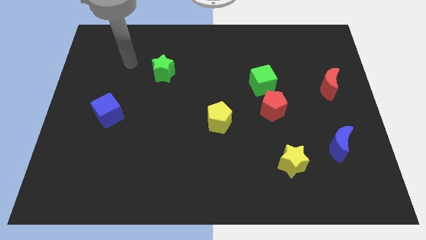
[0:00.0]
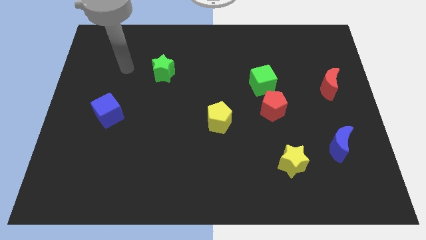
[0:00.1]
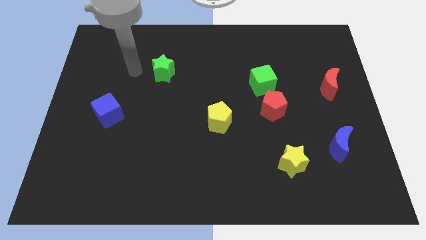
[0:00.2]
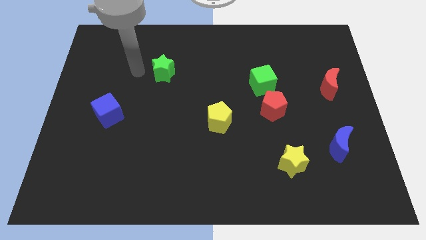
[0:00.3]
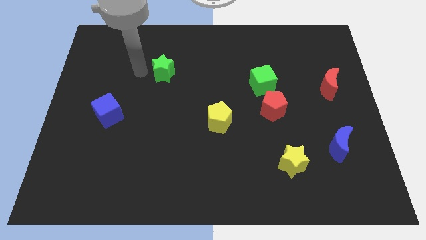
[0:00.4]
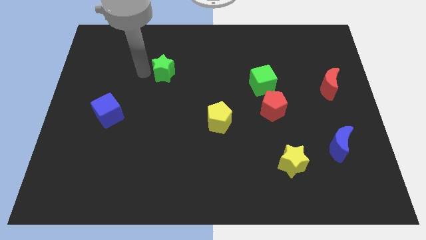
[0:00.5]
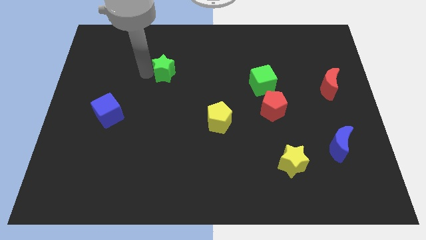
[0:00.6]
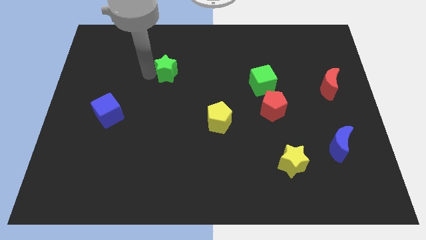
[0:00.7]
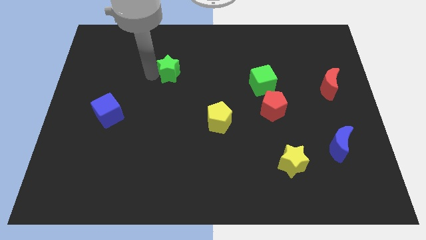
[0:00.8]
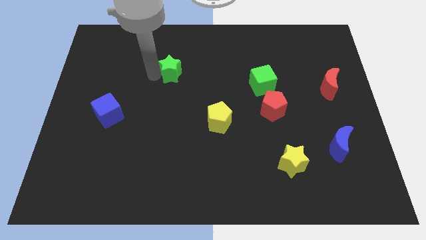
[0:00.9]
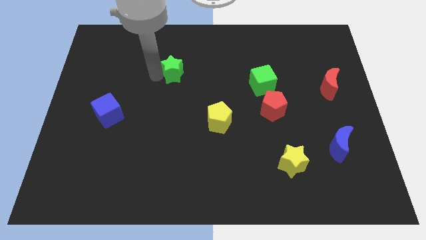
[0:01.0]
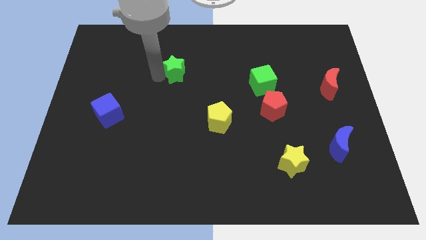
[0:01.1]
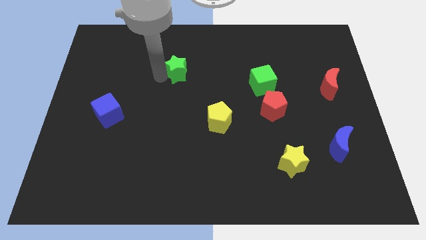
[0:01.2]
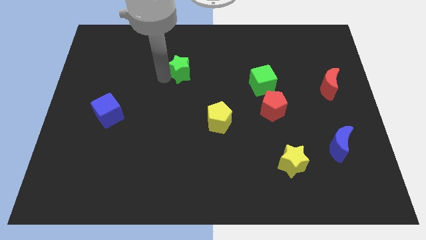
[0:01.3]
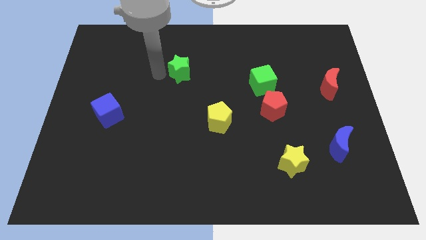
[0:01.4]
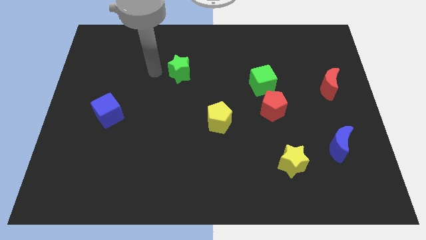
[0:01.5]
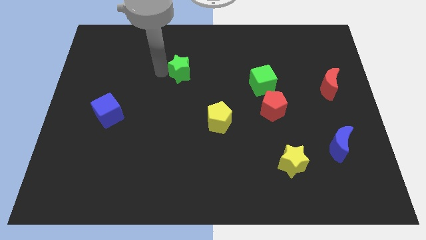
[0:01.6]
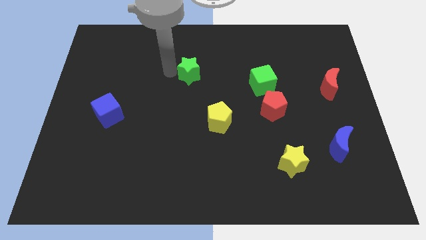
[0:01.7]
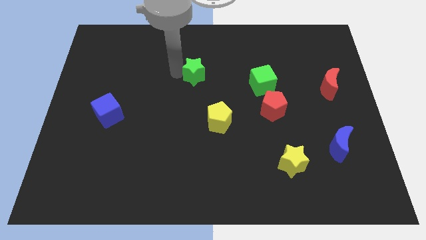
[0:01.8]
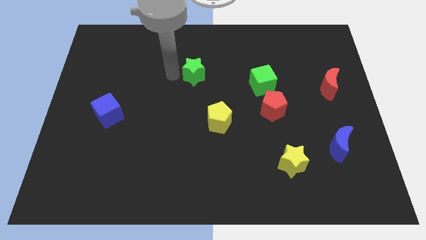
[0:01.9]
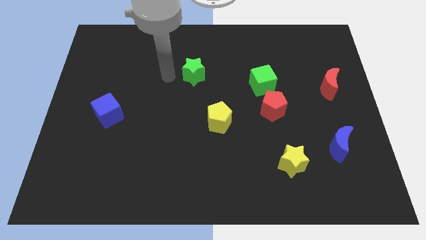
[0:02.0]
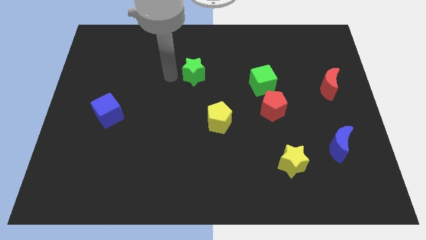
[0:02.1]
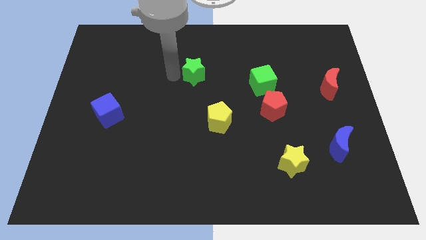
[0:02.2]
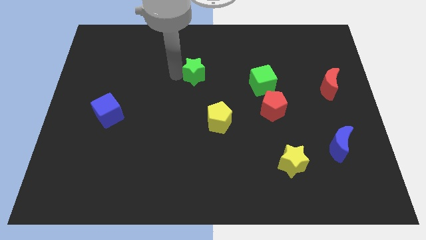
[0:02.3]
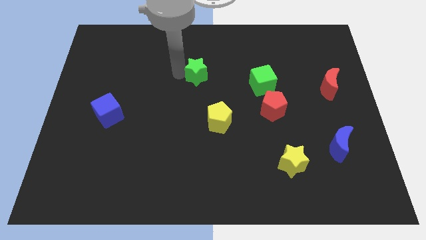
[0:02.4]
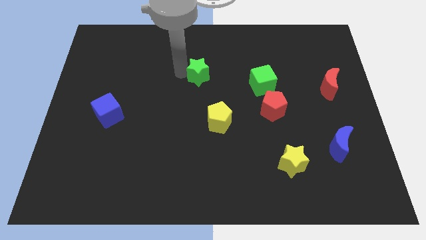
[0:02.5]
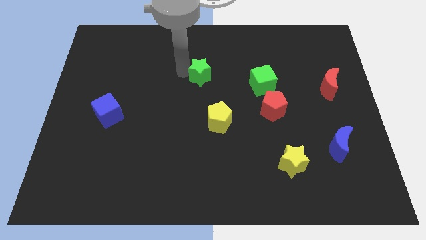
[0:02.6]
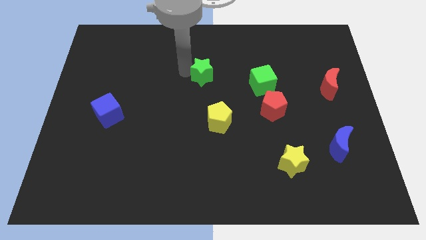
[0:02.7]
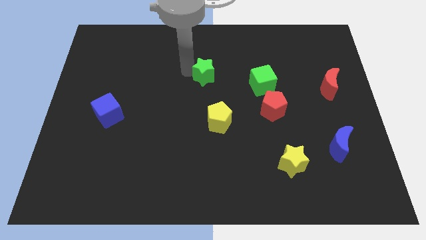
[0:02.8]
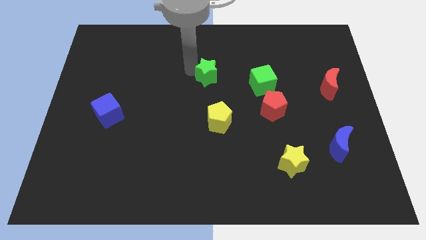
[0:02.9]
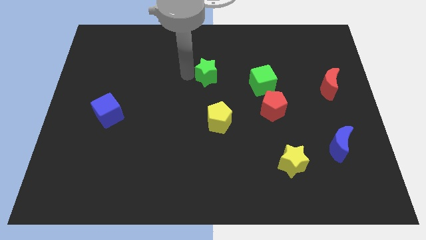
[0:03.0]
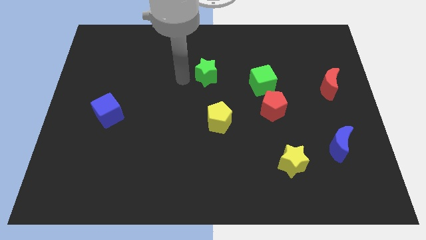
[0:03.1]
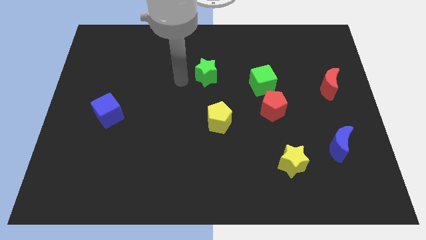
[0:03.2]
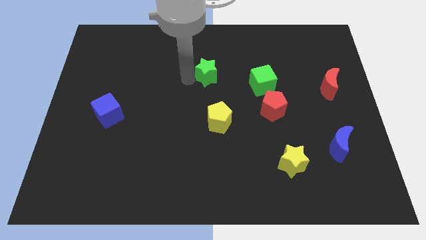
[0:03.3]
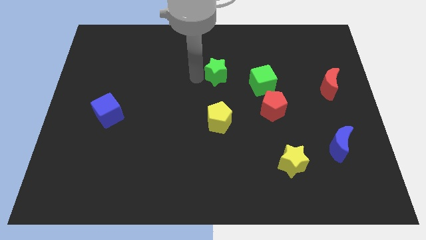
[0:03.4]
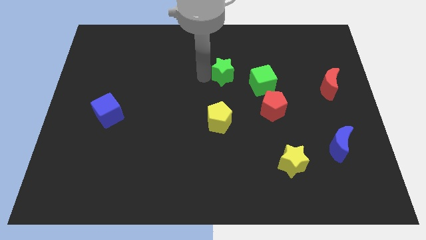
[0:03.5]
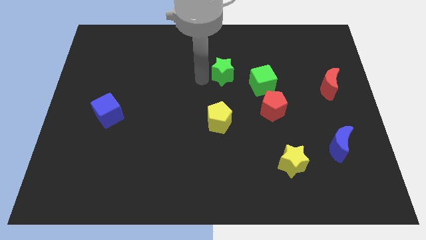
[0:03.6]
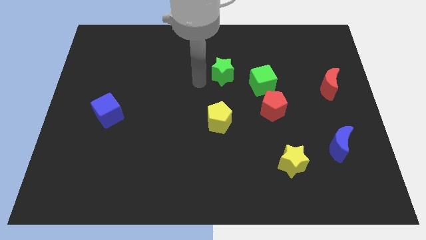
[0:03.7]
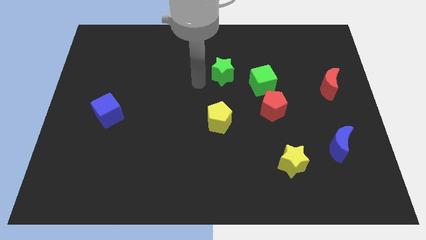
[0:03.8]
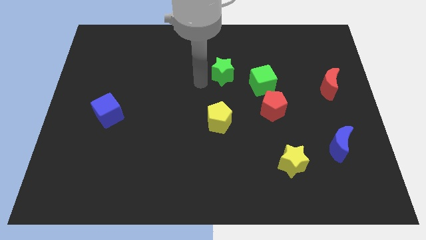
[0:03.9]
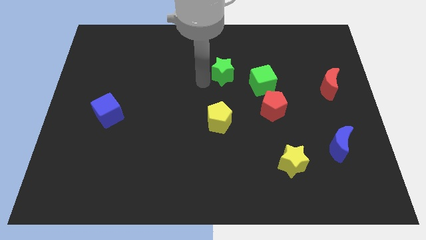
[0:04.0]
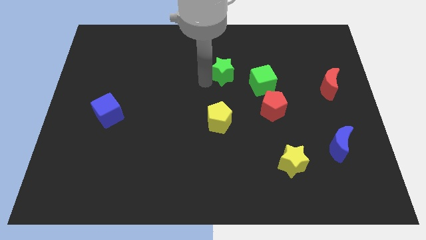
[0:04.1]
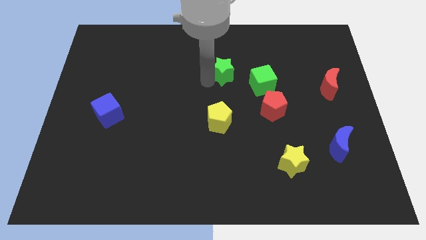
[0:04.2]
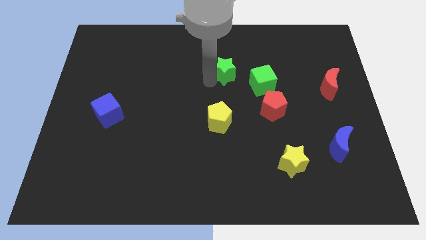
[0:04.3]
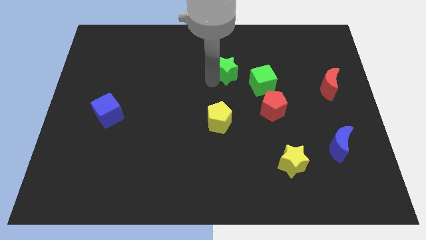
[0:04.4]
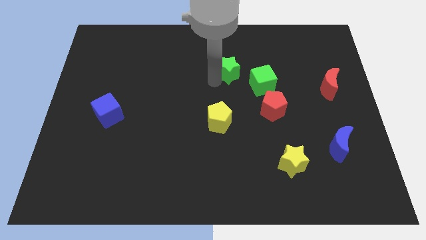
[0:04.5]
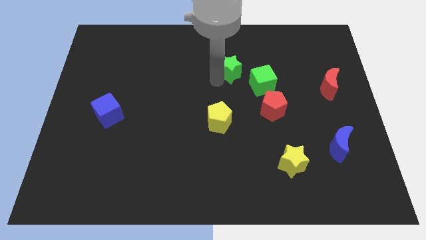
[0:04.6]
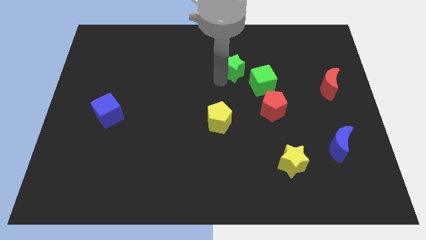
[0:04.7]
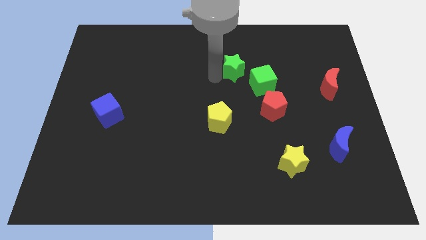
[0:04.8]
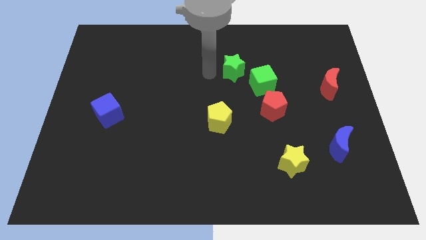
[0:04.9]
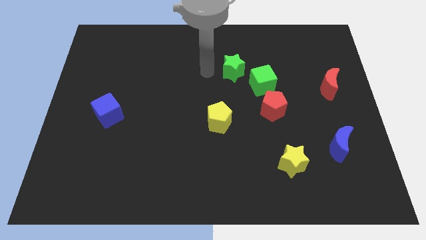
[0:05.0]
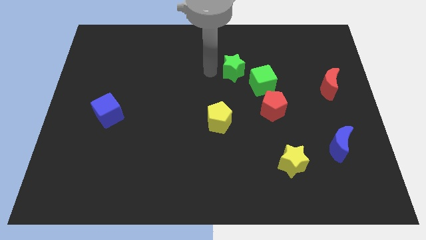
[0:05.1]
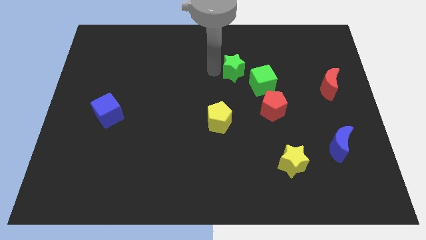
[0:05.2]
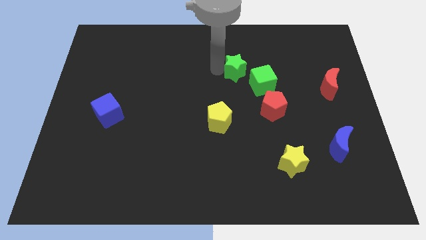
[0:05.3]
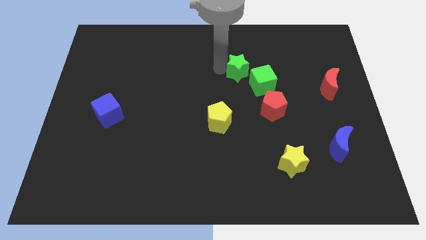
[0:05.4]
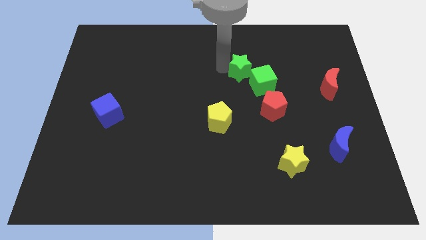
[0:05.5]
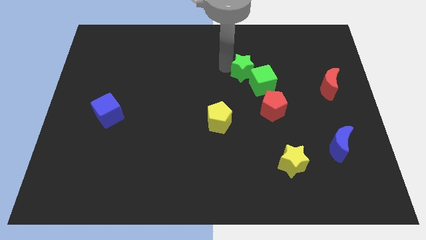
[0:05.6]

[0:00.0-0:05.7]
move the green star right

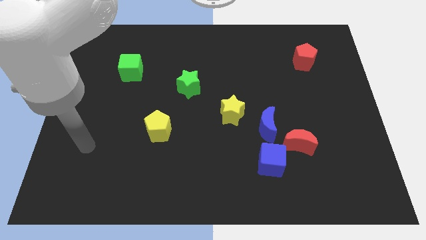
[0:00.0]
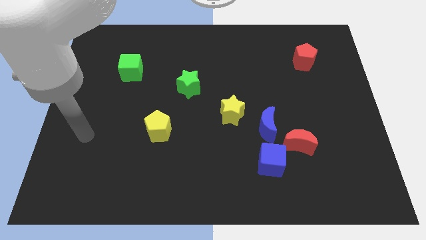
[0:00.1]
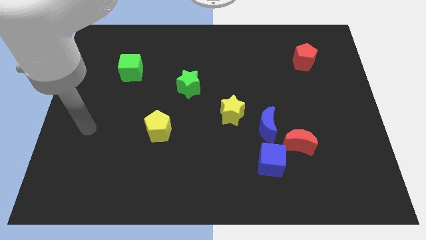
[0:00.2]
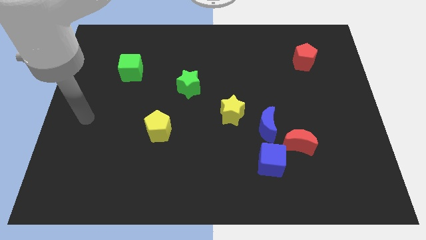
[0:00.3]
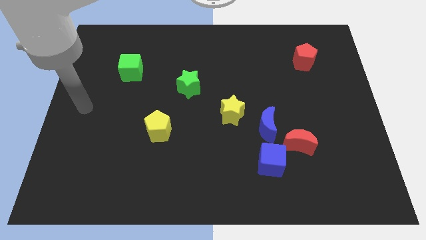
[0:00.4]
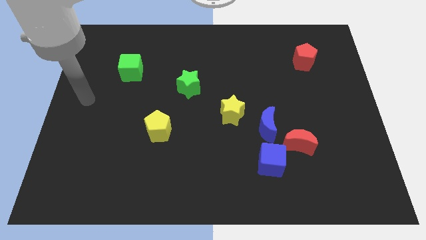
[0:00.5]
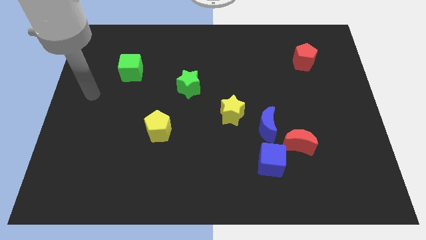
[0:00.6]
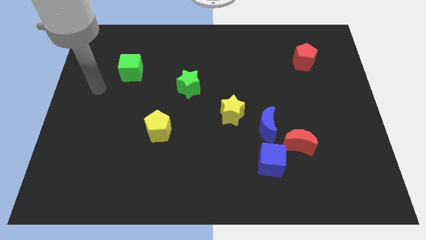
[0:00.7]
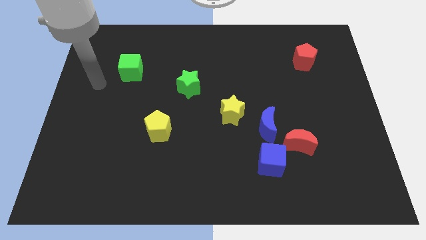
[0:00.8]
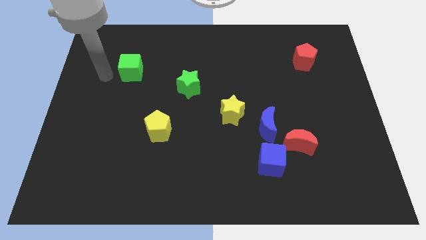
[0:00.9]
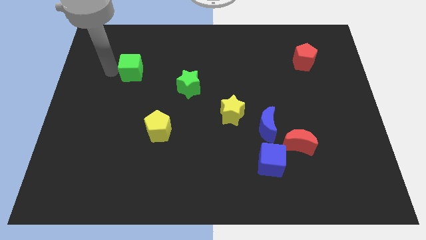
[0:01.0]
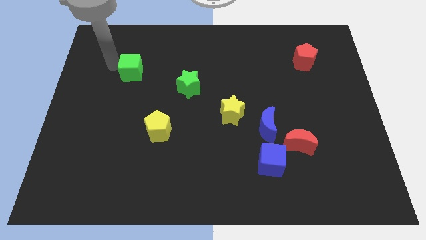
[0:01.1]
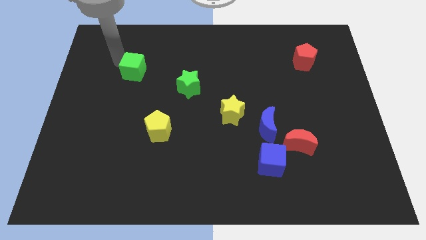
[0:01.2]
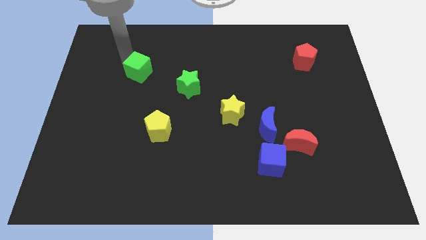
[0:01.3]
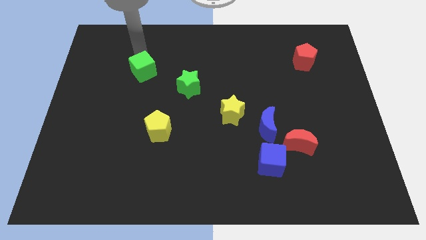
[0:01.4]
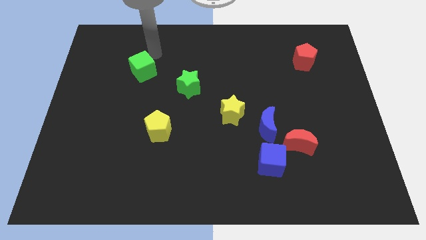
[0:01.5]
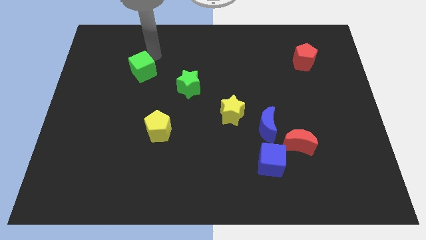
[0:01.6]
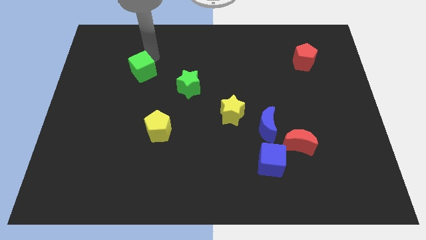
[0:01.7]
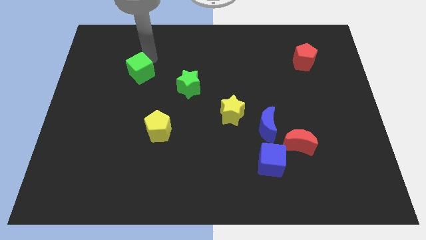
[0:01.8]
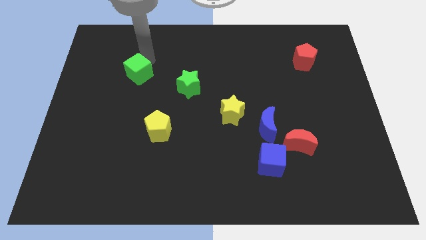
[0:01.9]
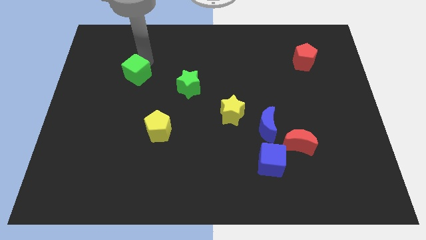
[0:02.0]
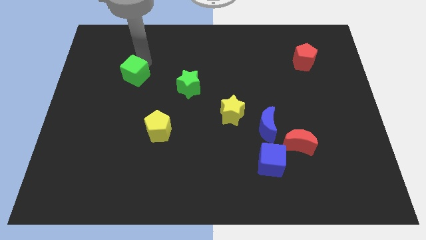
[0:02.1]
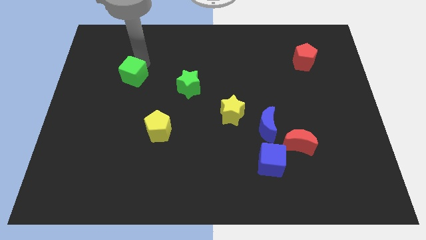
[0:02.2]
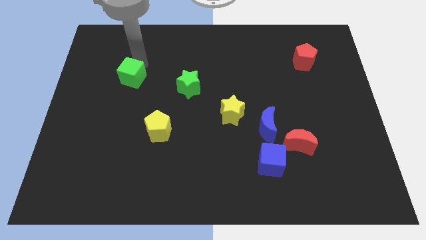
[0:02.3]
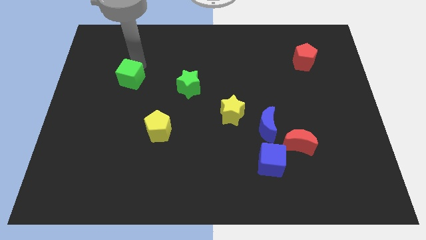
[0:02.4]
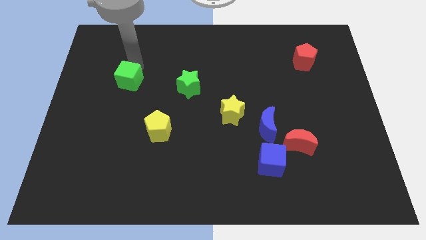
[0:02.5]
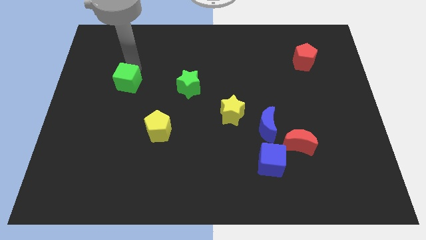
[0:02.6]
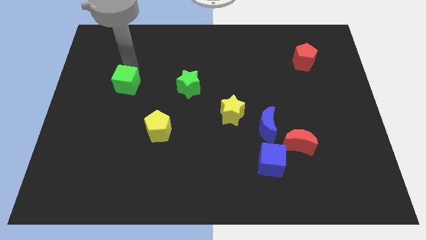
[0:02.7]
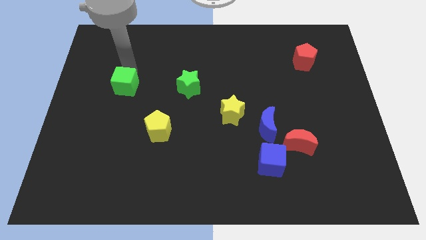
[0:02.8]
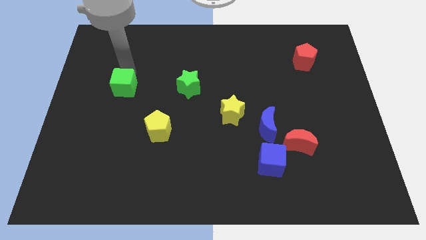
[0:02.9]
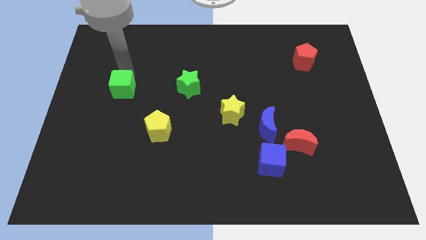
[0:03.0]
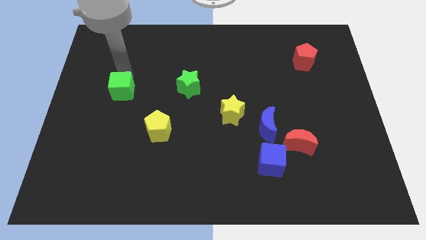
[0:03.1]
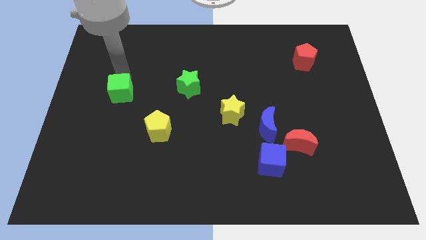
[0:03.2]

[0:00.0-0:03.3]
slide the green cube somewhat down
